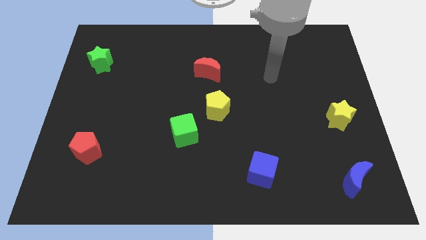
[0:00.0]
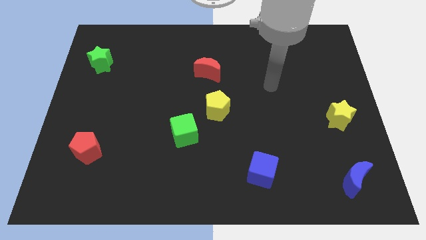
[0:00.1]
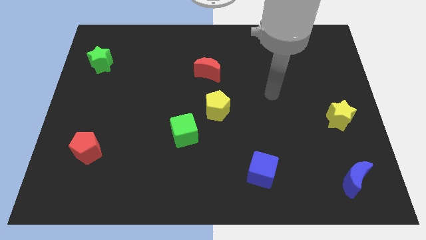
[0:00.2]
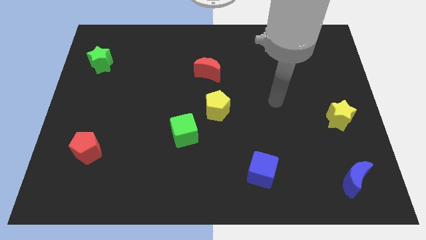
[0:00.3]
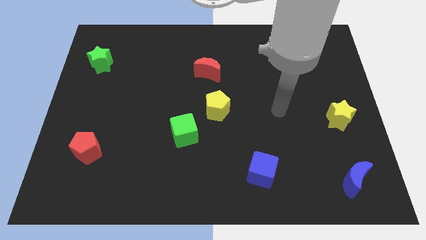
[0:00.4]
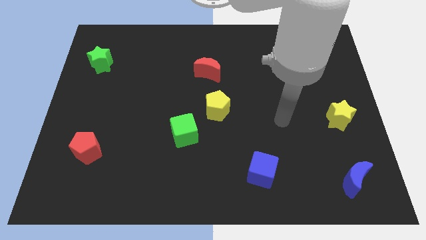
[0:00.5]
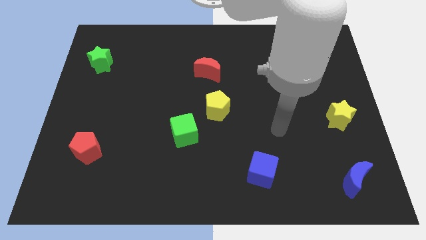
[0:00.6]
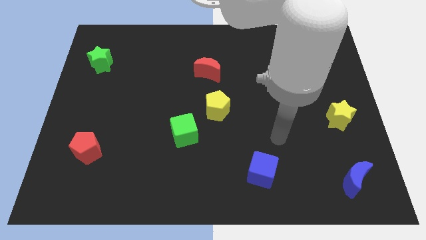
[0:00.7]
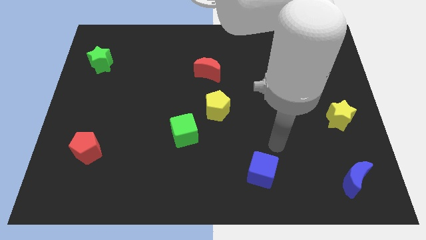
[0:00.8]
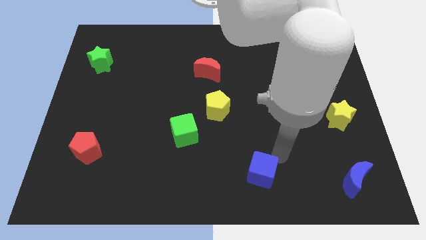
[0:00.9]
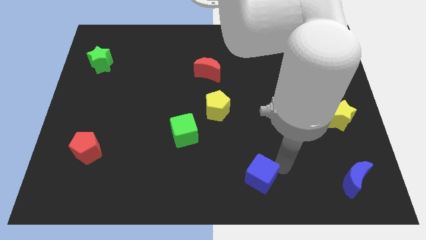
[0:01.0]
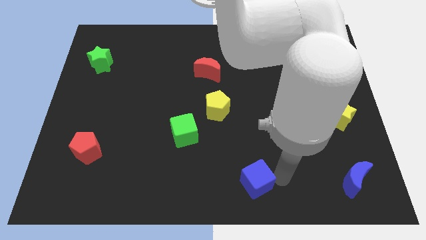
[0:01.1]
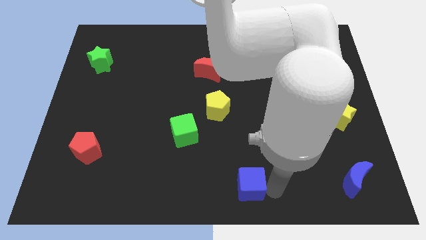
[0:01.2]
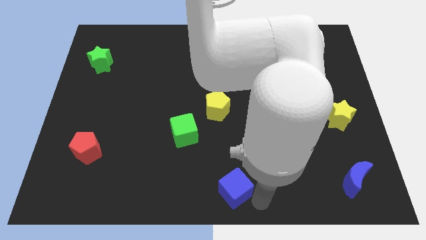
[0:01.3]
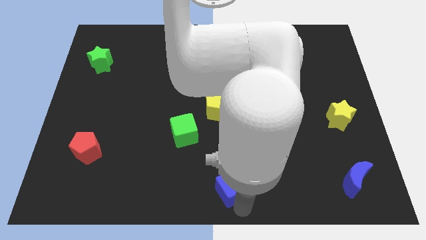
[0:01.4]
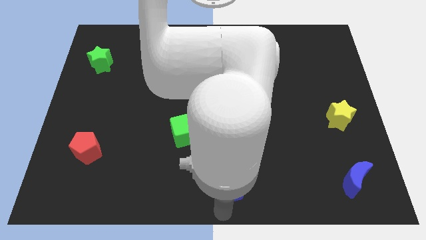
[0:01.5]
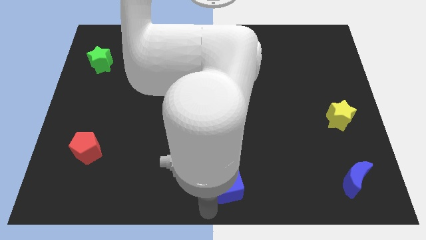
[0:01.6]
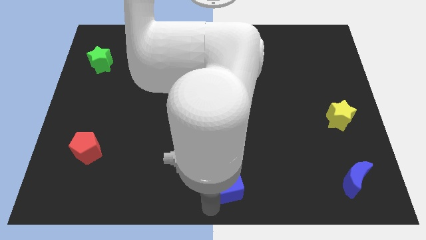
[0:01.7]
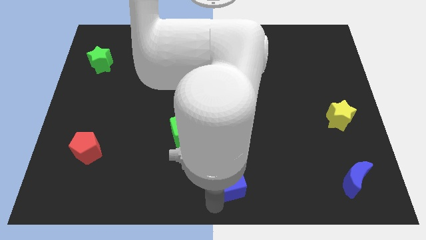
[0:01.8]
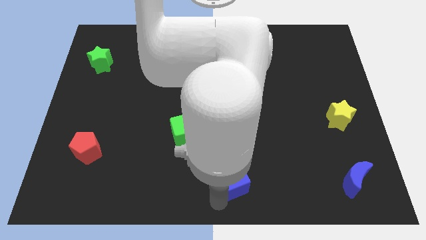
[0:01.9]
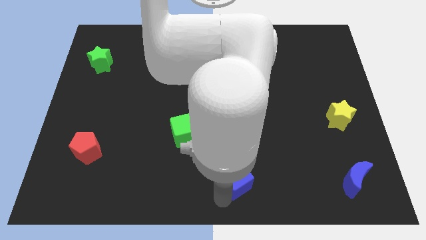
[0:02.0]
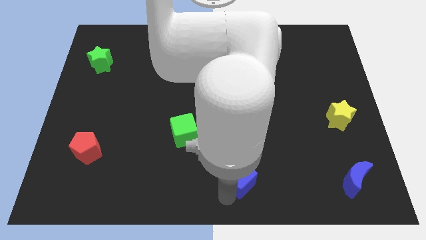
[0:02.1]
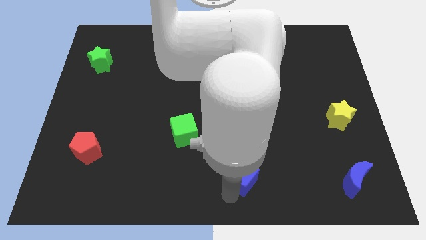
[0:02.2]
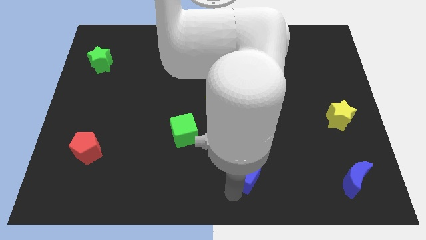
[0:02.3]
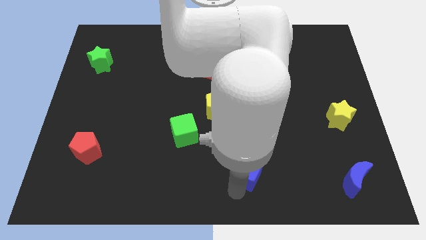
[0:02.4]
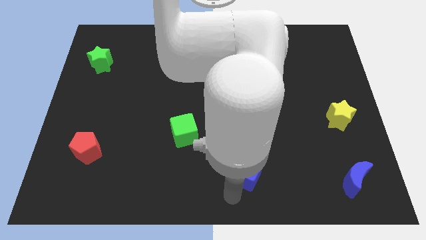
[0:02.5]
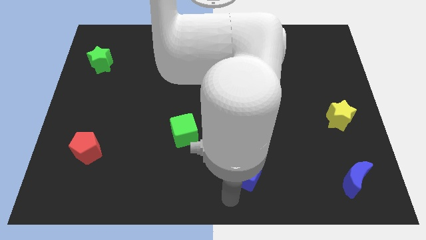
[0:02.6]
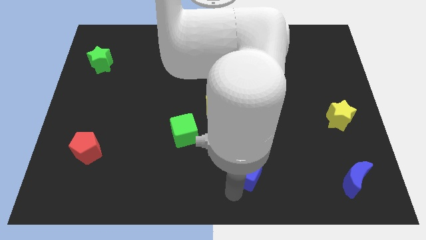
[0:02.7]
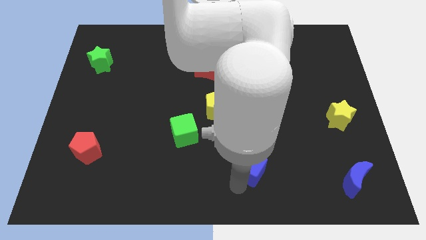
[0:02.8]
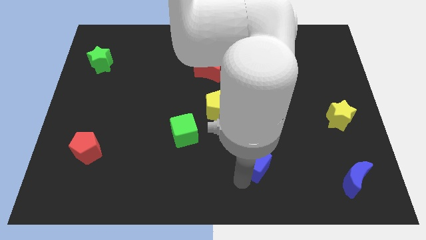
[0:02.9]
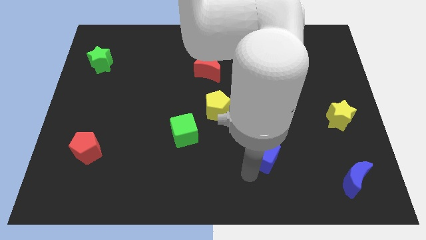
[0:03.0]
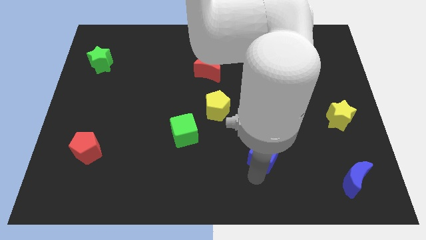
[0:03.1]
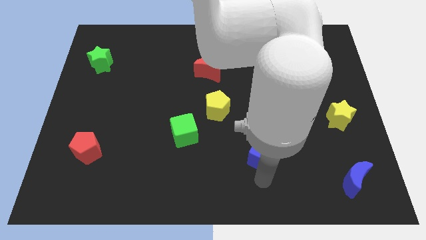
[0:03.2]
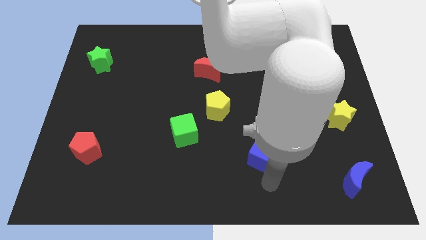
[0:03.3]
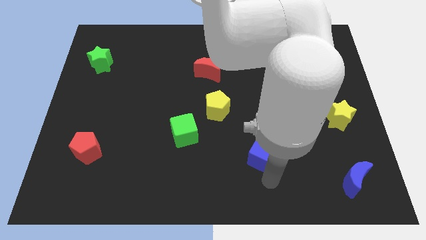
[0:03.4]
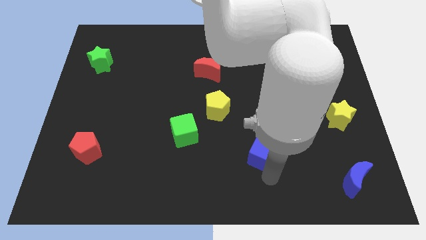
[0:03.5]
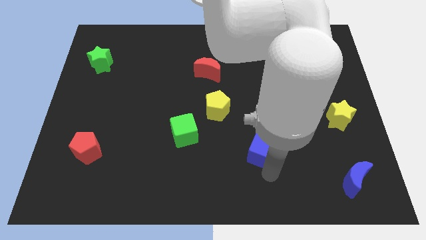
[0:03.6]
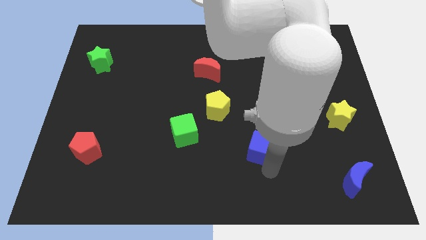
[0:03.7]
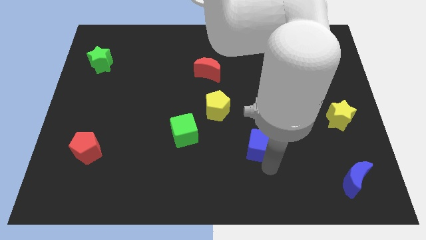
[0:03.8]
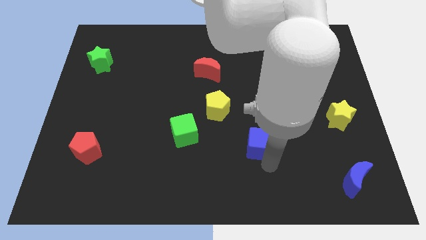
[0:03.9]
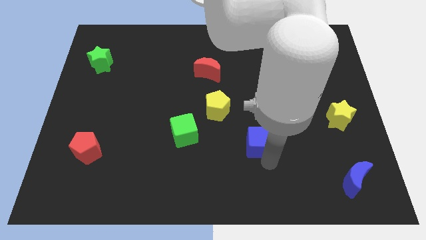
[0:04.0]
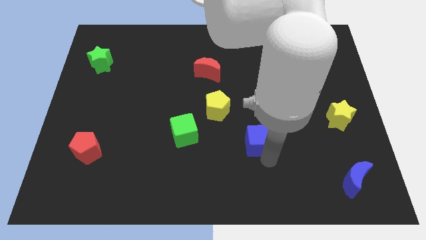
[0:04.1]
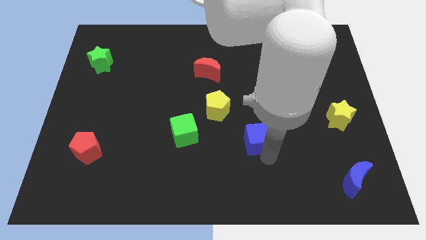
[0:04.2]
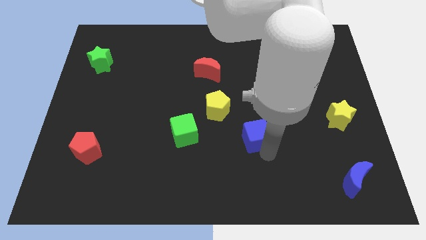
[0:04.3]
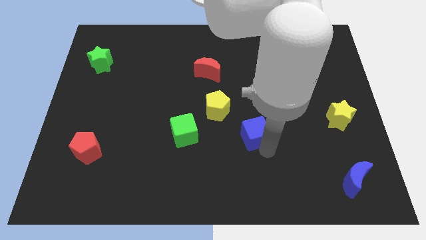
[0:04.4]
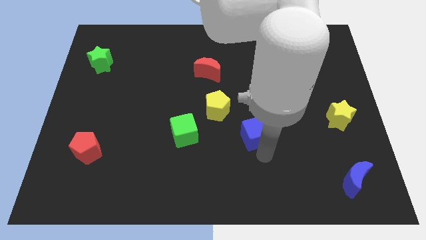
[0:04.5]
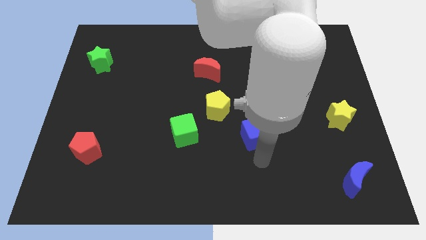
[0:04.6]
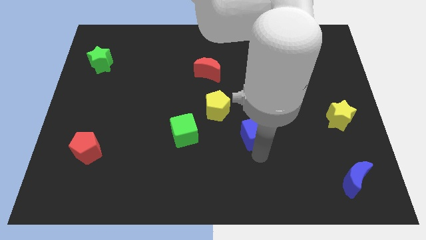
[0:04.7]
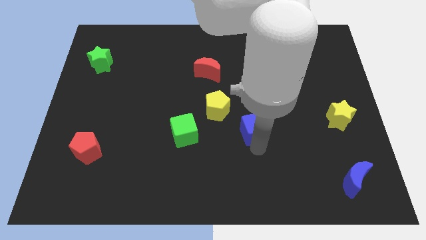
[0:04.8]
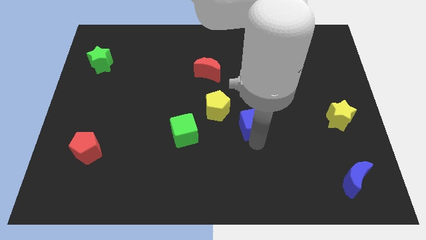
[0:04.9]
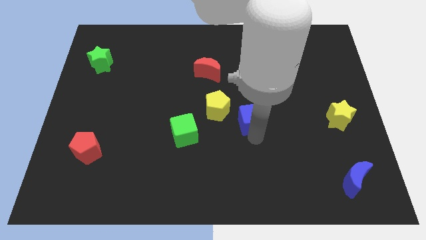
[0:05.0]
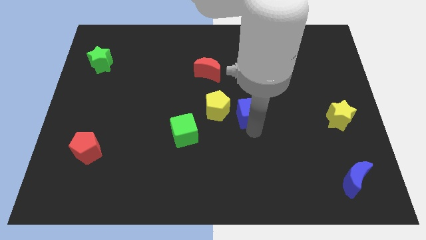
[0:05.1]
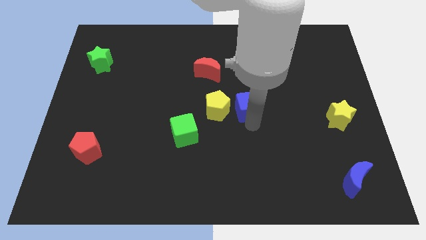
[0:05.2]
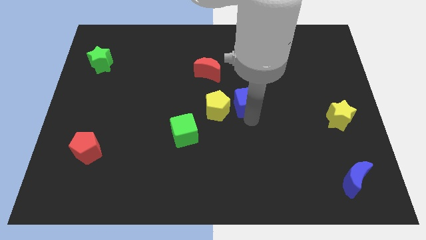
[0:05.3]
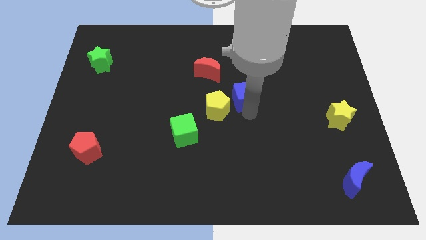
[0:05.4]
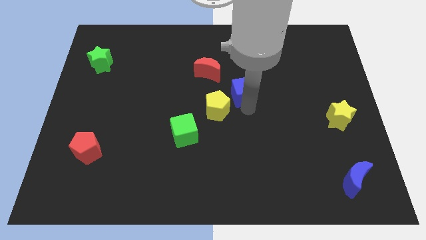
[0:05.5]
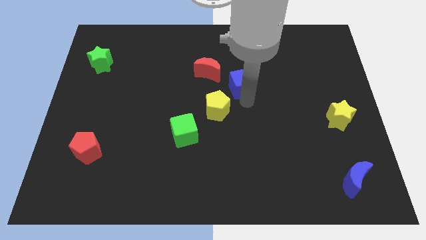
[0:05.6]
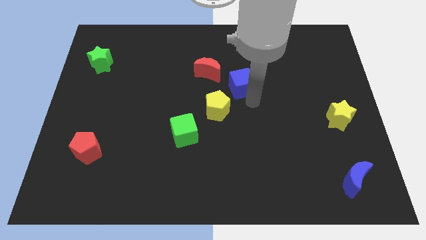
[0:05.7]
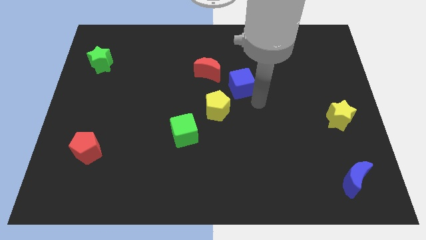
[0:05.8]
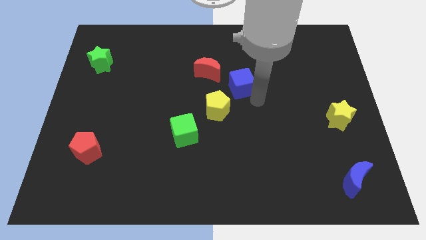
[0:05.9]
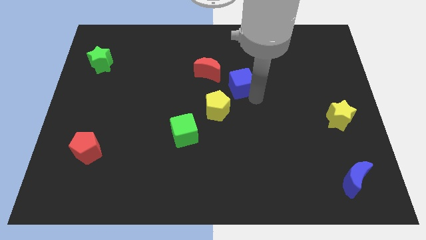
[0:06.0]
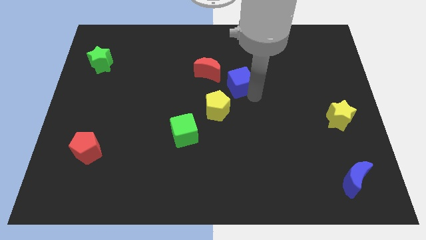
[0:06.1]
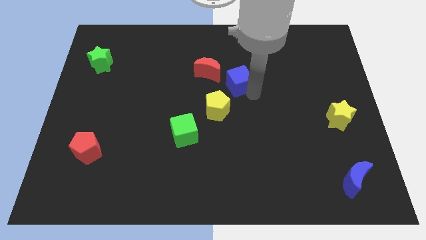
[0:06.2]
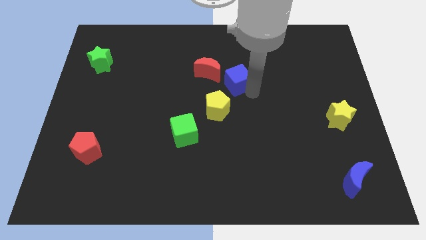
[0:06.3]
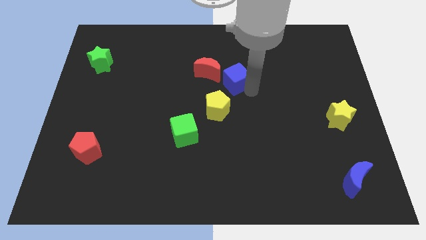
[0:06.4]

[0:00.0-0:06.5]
slide the blue cube above the yellow pentagon

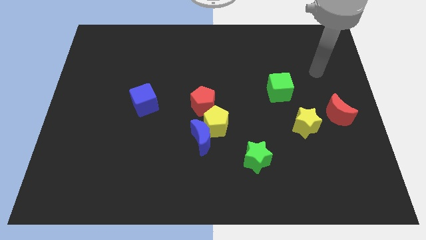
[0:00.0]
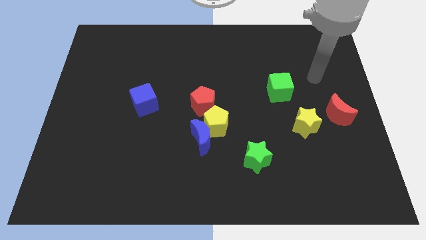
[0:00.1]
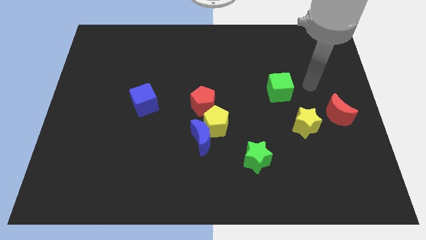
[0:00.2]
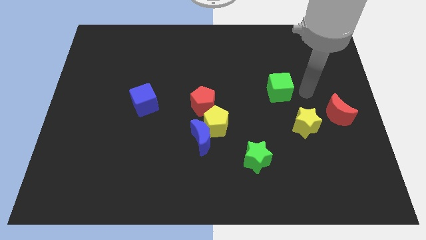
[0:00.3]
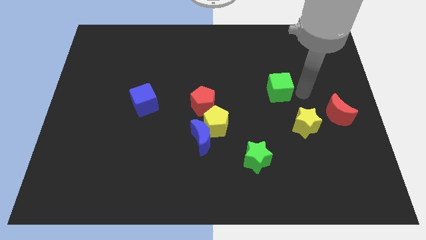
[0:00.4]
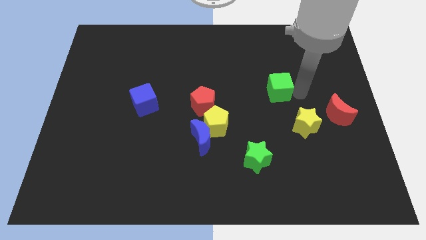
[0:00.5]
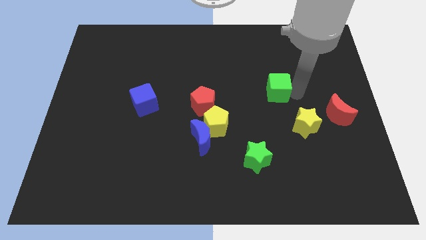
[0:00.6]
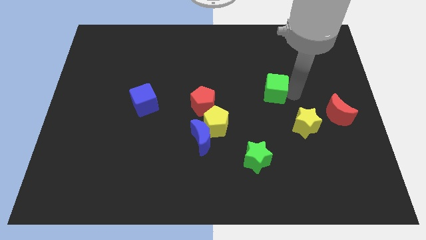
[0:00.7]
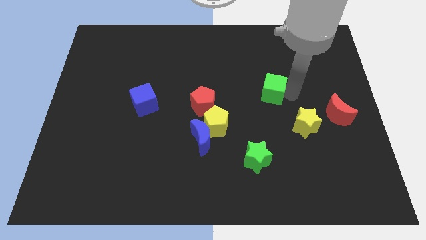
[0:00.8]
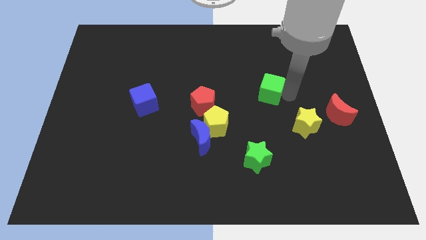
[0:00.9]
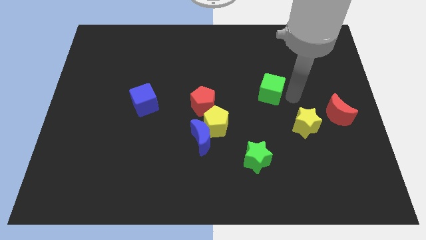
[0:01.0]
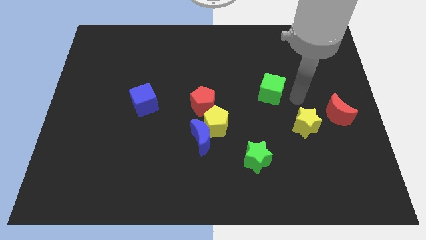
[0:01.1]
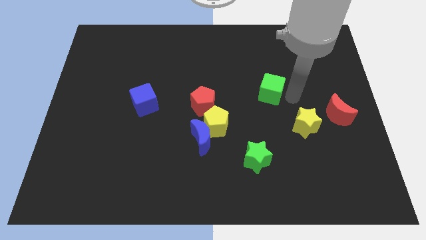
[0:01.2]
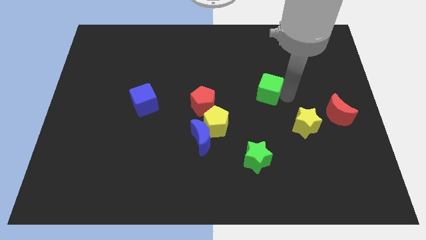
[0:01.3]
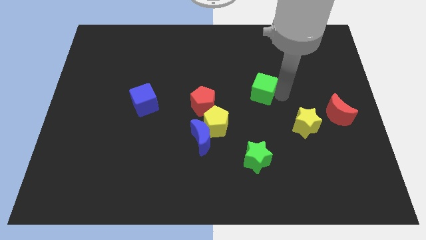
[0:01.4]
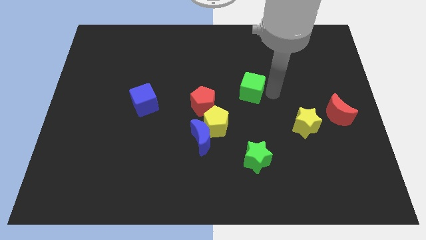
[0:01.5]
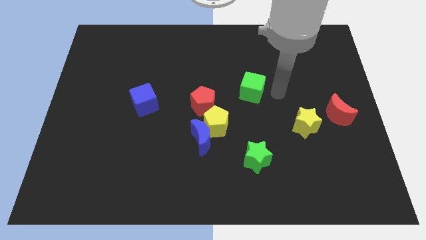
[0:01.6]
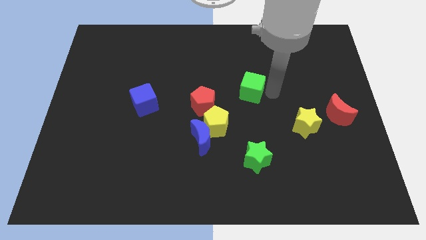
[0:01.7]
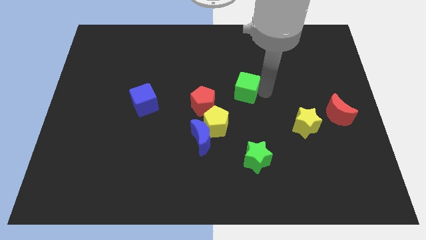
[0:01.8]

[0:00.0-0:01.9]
push the green cube to the top right side of the red pentagon
